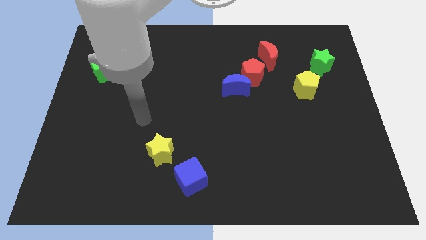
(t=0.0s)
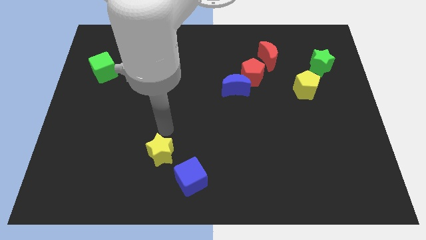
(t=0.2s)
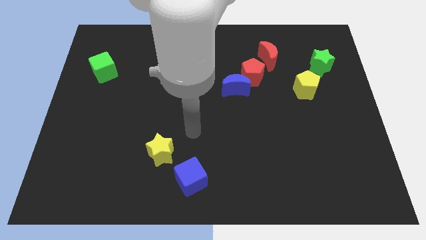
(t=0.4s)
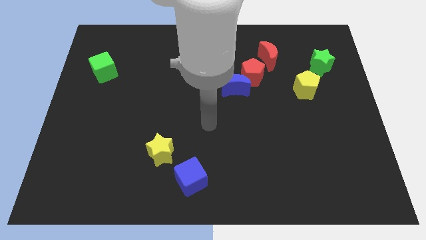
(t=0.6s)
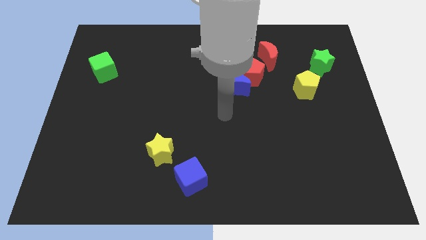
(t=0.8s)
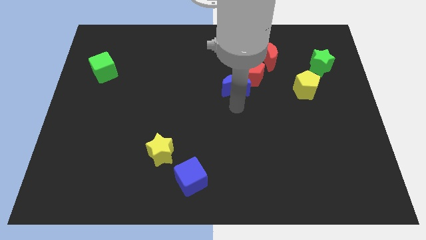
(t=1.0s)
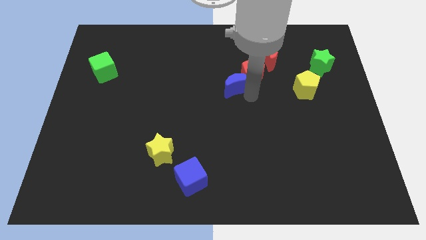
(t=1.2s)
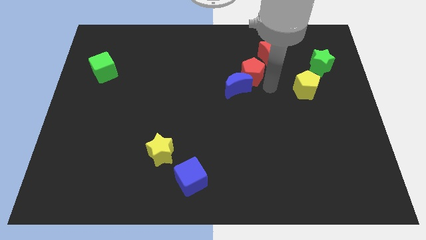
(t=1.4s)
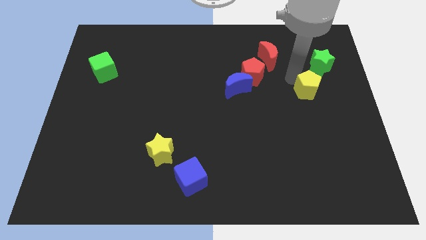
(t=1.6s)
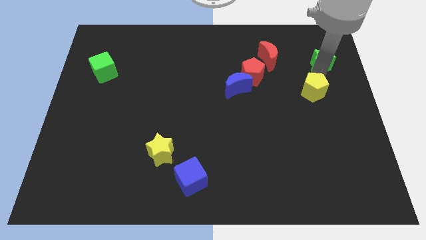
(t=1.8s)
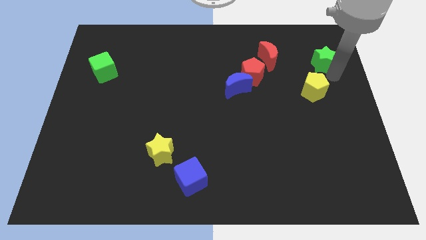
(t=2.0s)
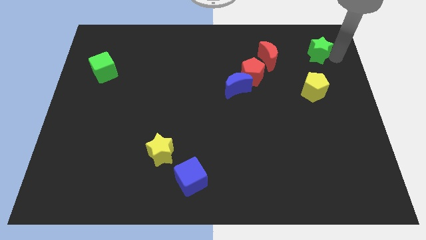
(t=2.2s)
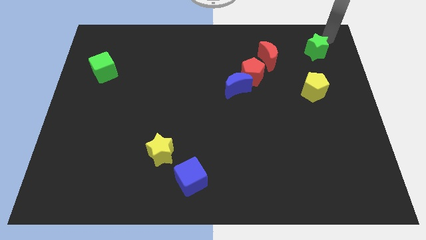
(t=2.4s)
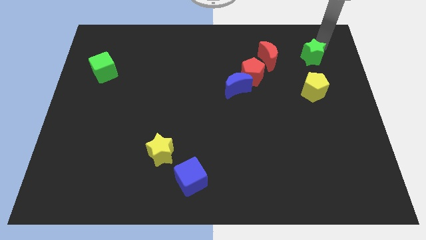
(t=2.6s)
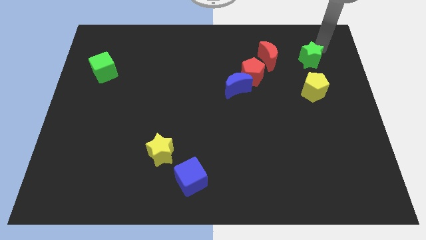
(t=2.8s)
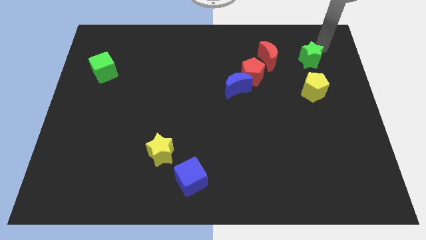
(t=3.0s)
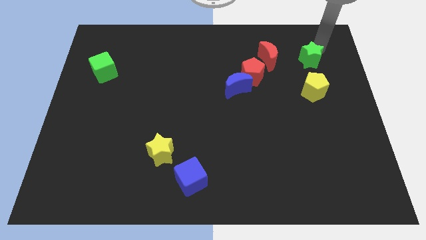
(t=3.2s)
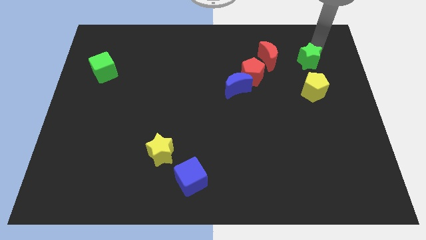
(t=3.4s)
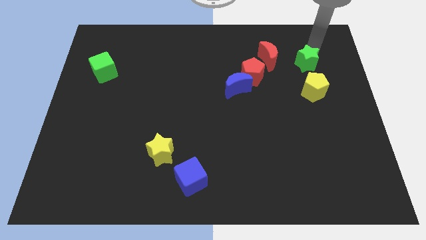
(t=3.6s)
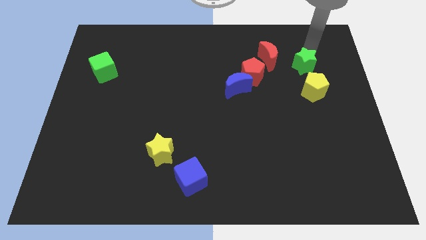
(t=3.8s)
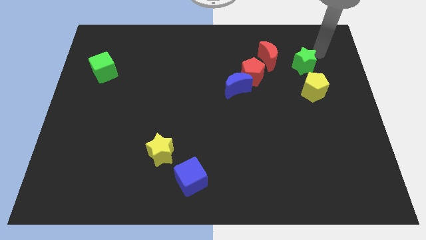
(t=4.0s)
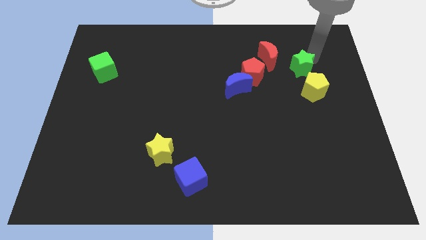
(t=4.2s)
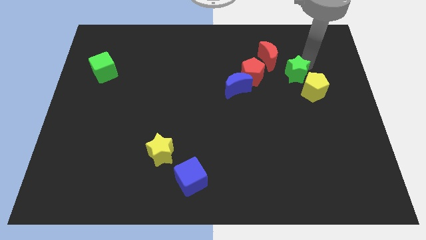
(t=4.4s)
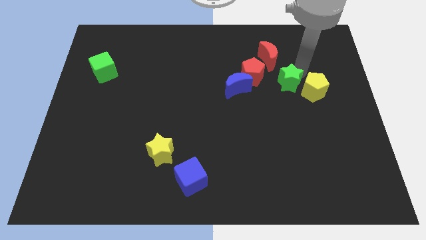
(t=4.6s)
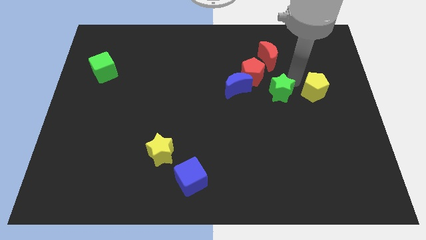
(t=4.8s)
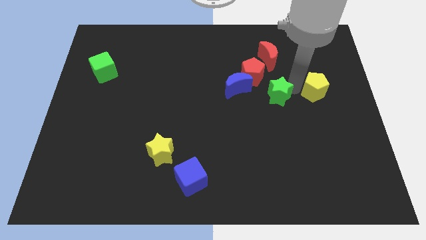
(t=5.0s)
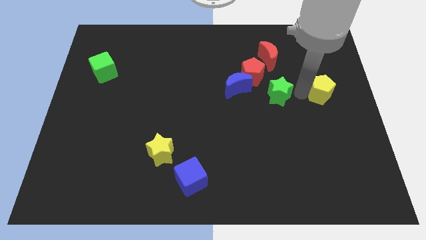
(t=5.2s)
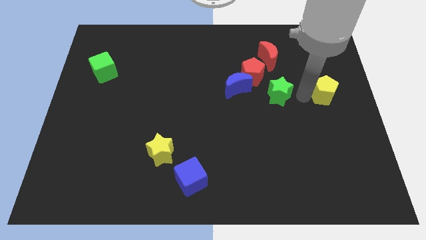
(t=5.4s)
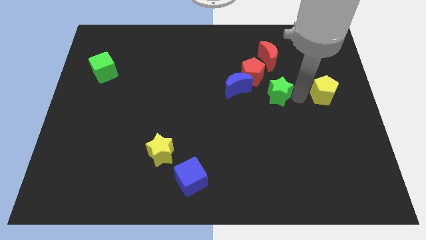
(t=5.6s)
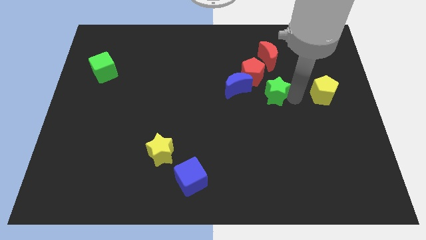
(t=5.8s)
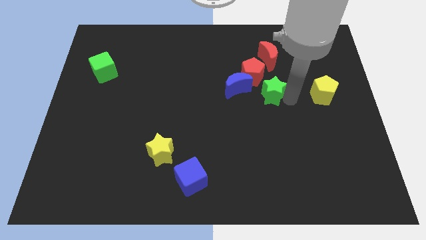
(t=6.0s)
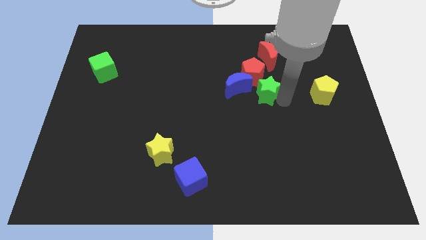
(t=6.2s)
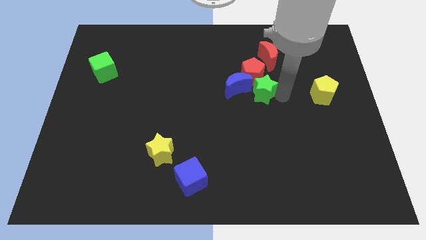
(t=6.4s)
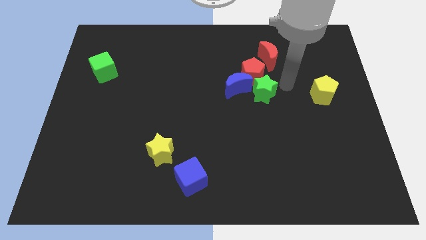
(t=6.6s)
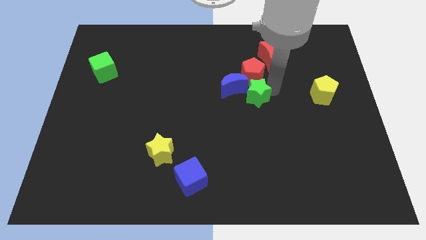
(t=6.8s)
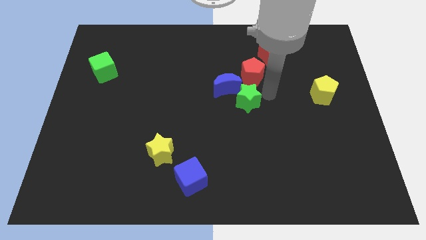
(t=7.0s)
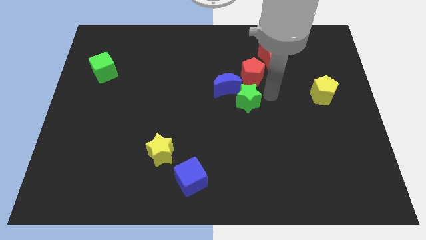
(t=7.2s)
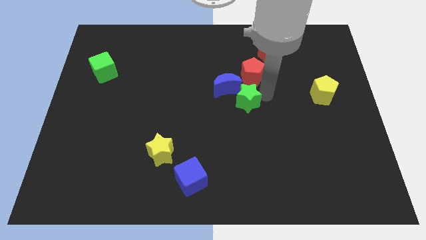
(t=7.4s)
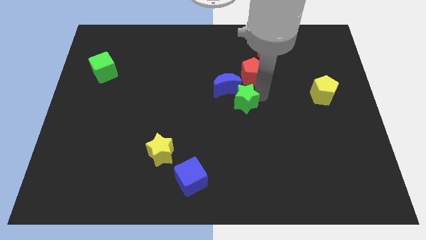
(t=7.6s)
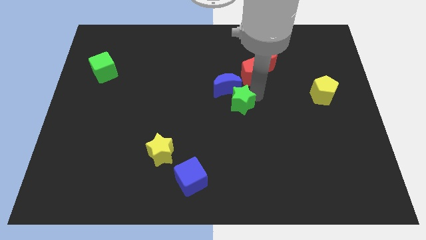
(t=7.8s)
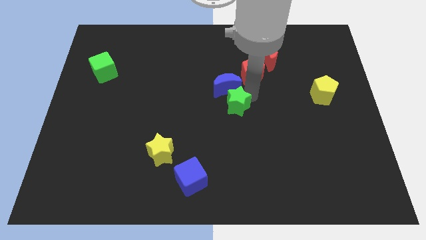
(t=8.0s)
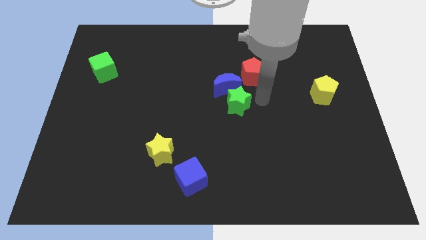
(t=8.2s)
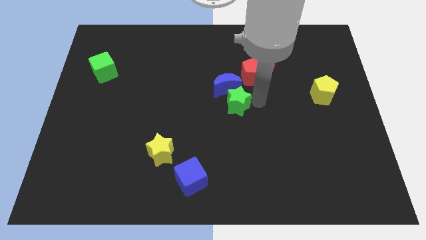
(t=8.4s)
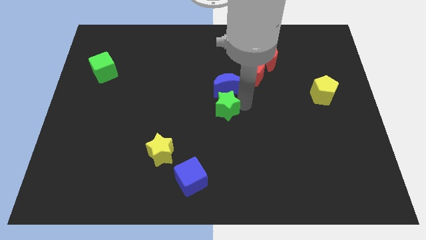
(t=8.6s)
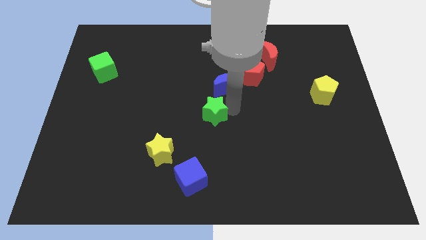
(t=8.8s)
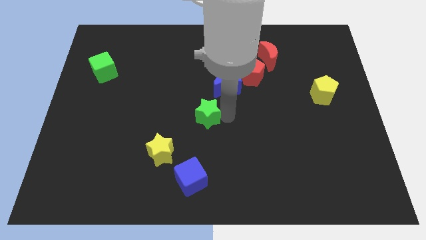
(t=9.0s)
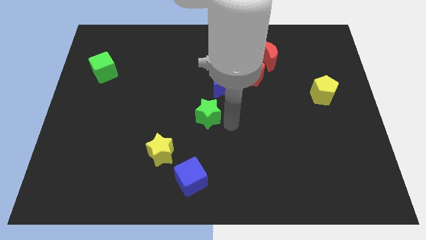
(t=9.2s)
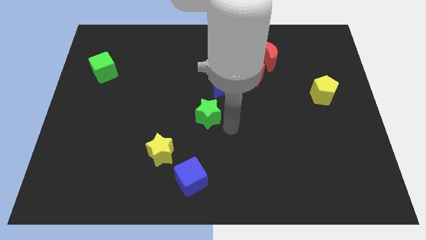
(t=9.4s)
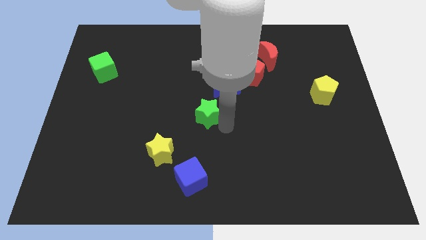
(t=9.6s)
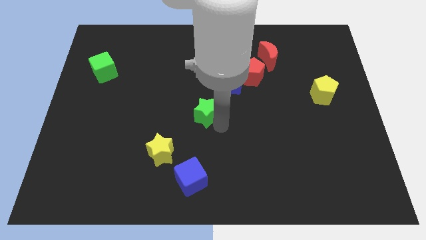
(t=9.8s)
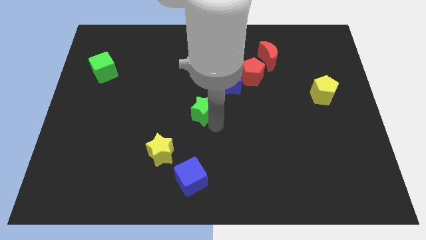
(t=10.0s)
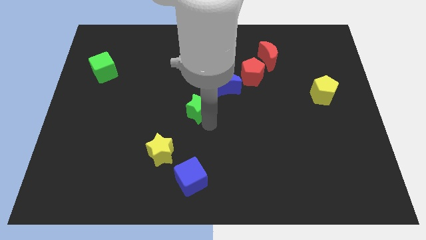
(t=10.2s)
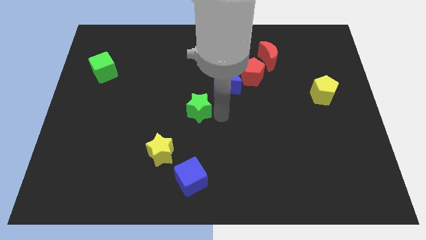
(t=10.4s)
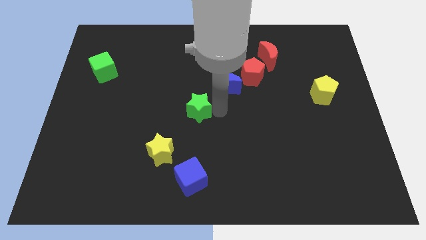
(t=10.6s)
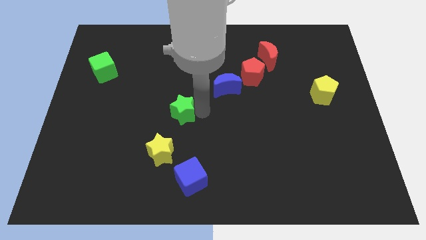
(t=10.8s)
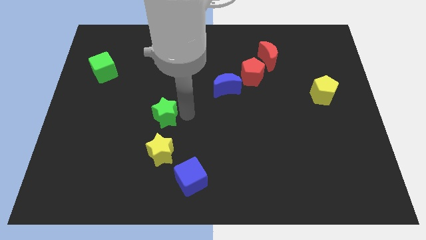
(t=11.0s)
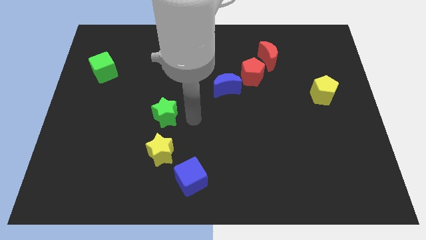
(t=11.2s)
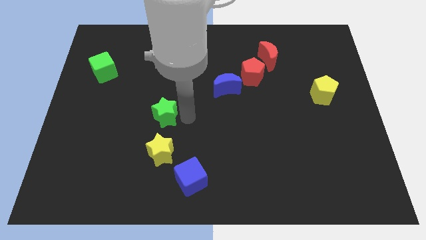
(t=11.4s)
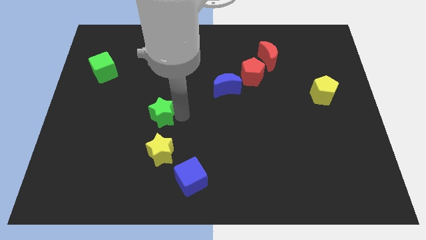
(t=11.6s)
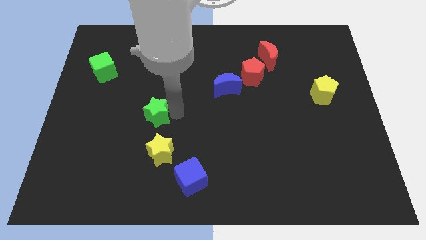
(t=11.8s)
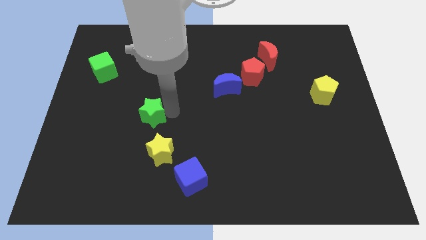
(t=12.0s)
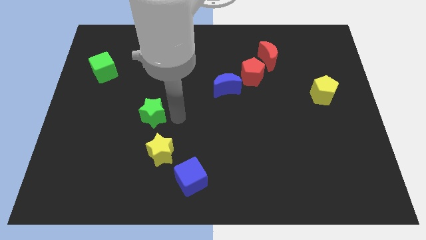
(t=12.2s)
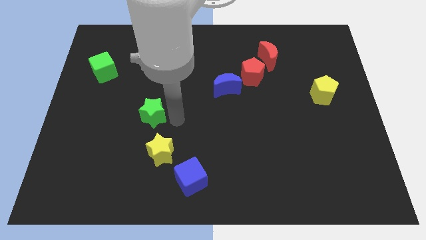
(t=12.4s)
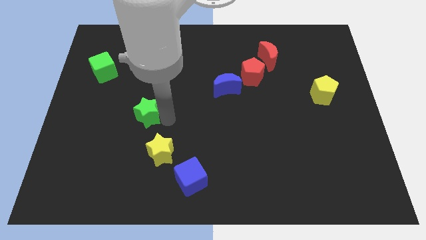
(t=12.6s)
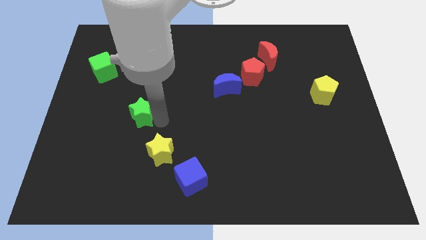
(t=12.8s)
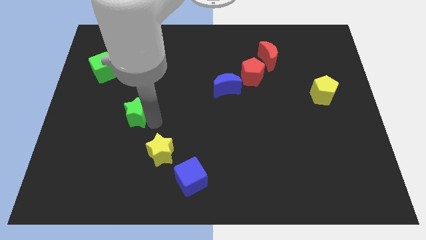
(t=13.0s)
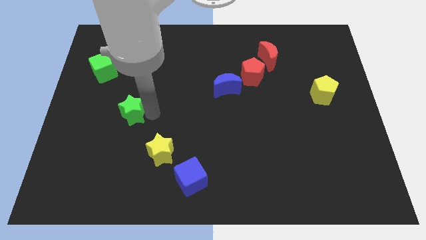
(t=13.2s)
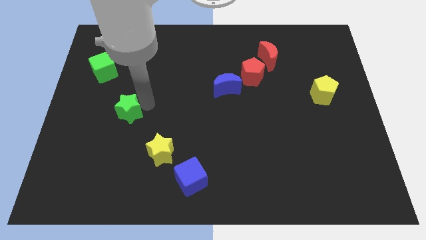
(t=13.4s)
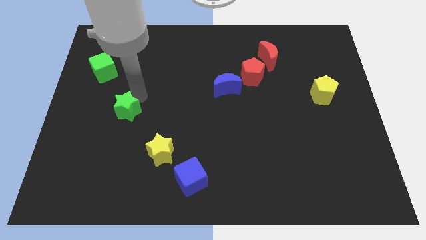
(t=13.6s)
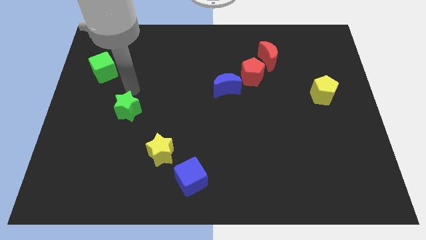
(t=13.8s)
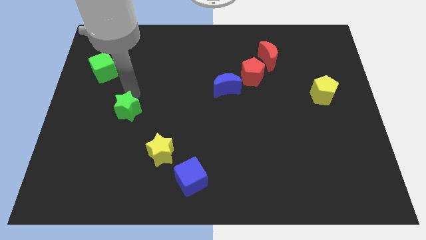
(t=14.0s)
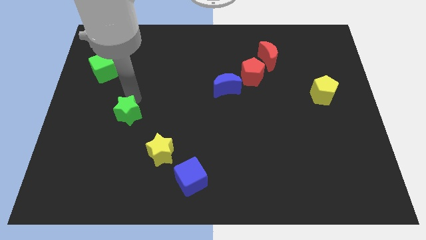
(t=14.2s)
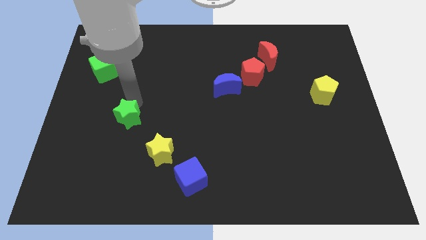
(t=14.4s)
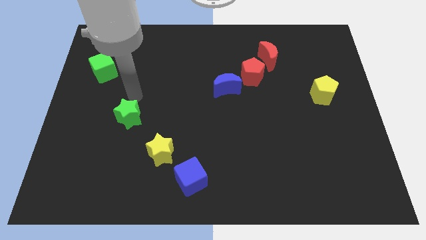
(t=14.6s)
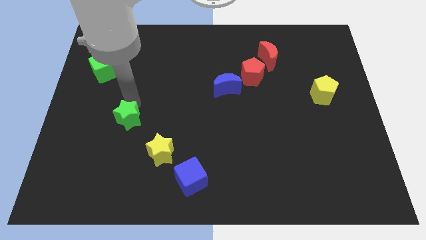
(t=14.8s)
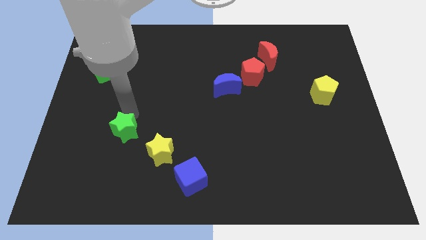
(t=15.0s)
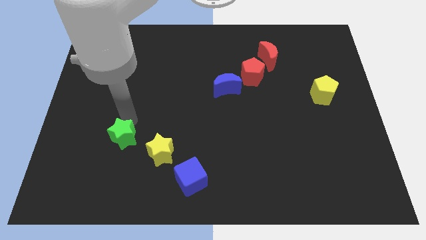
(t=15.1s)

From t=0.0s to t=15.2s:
put the green star to the left side of the yellow star
